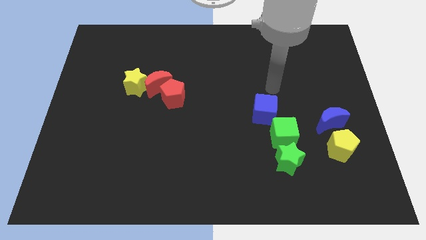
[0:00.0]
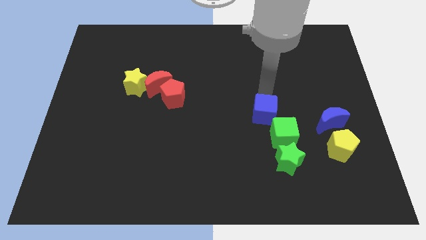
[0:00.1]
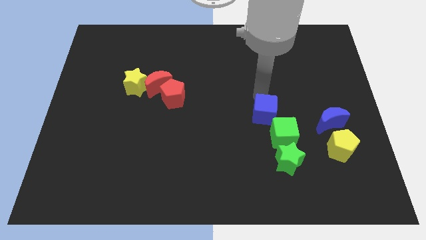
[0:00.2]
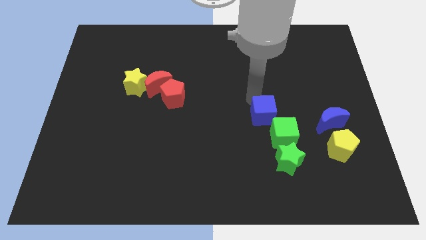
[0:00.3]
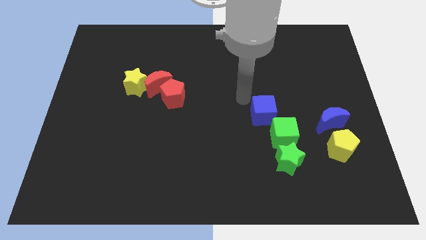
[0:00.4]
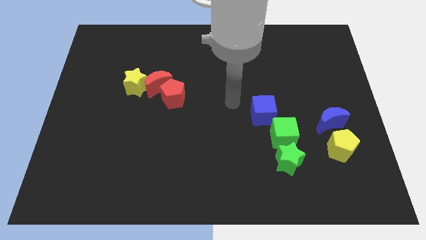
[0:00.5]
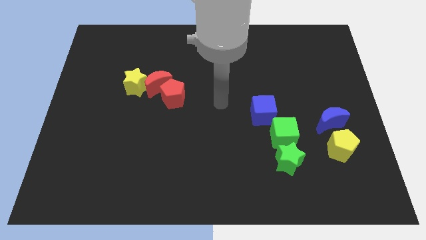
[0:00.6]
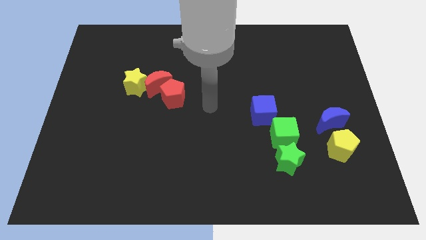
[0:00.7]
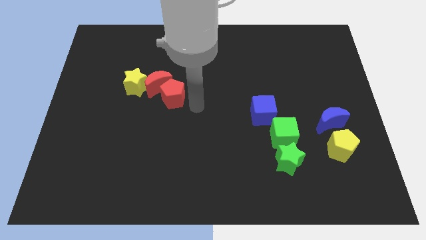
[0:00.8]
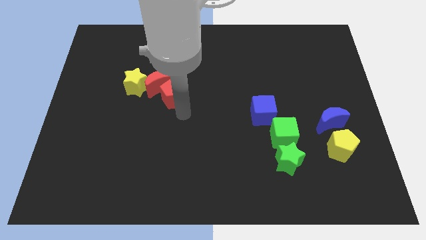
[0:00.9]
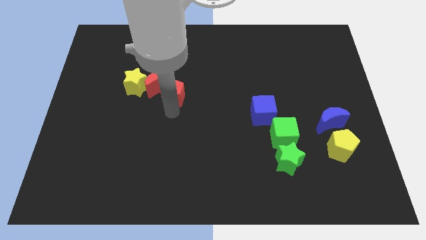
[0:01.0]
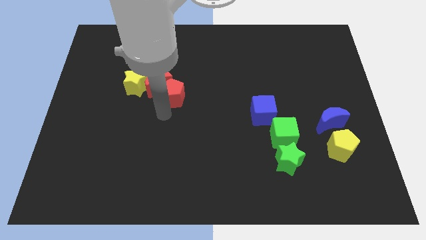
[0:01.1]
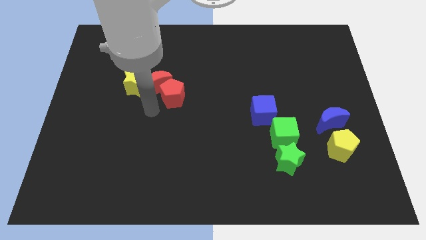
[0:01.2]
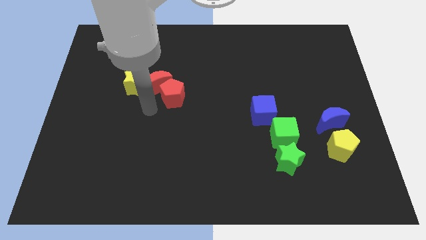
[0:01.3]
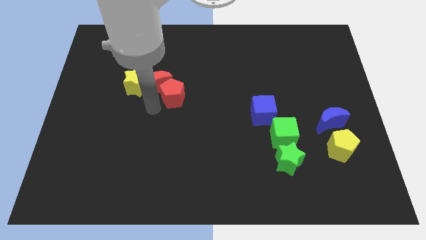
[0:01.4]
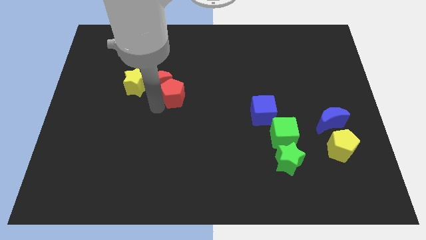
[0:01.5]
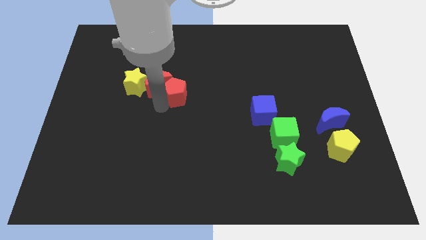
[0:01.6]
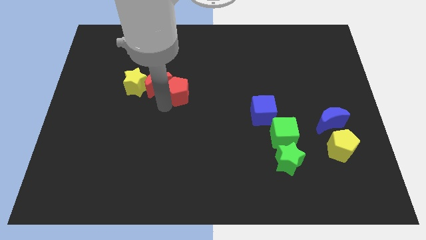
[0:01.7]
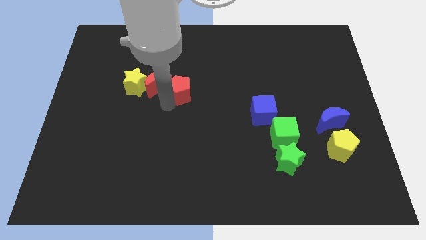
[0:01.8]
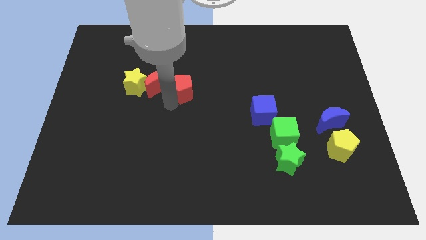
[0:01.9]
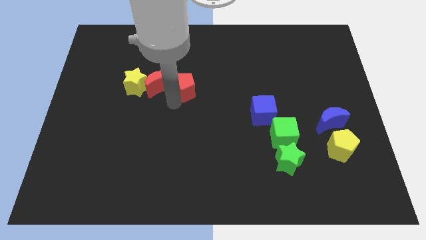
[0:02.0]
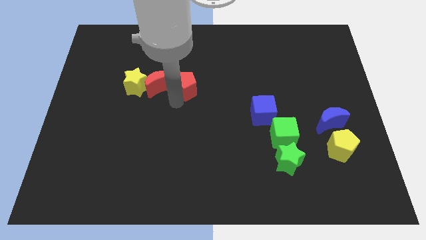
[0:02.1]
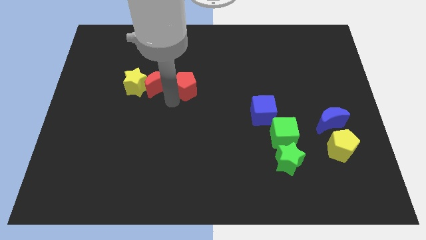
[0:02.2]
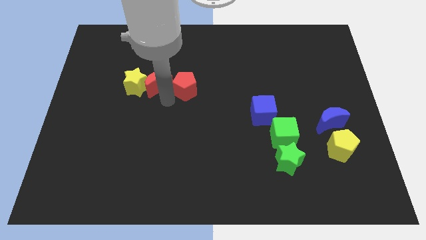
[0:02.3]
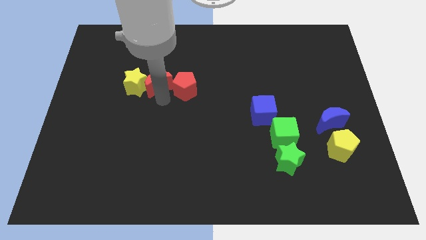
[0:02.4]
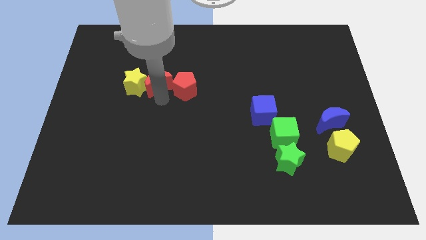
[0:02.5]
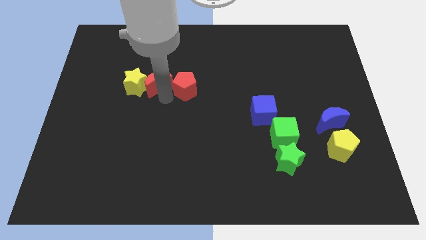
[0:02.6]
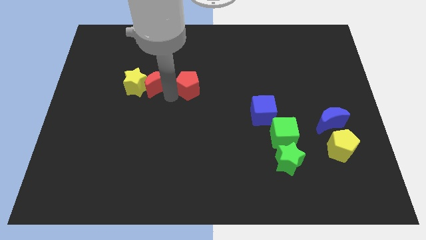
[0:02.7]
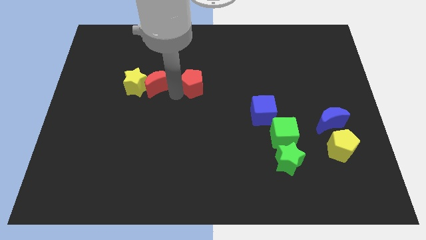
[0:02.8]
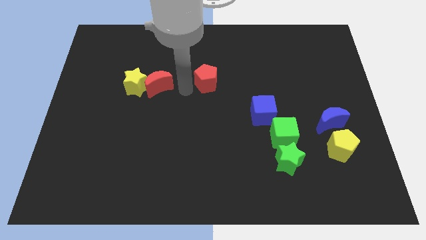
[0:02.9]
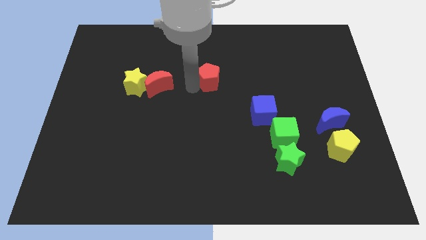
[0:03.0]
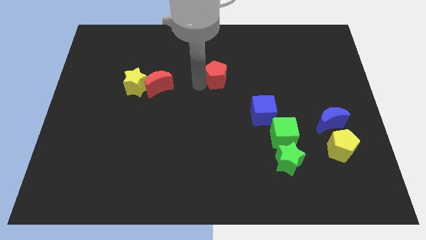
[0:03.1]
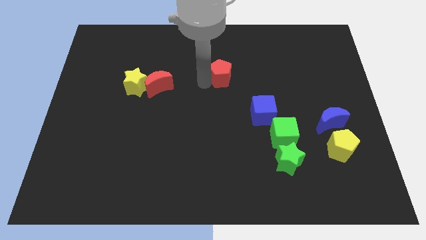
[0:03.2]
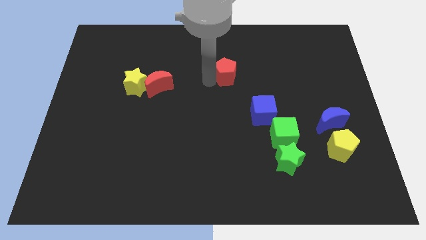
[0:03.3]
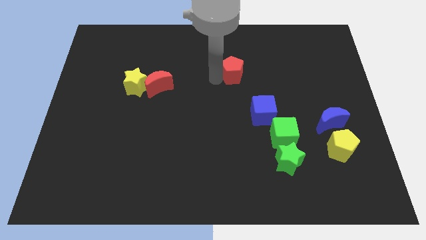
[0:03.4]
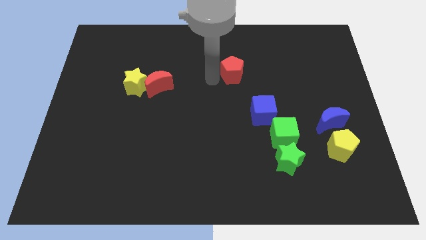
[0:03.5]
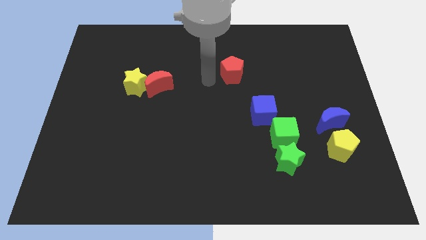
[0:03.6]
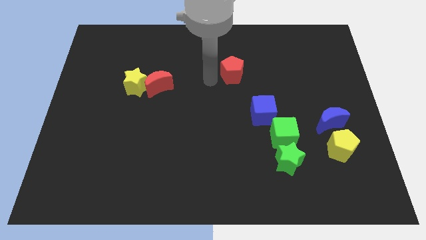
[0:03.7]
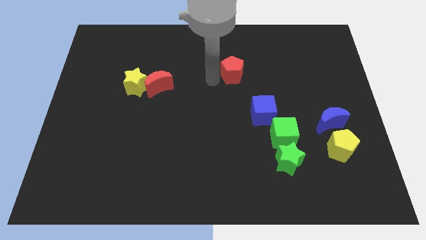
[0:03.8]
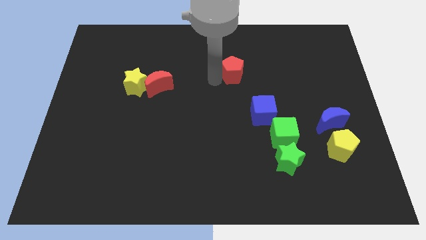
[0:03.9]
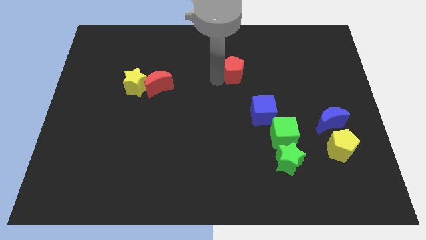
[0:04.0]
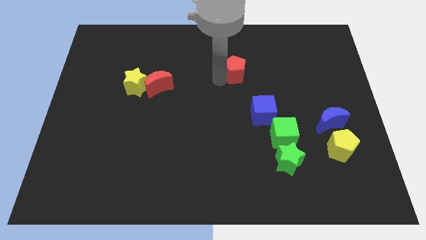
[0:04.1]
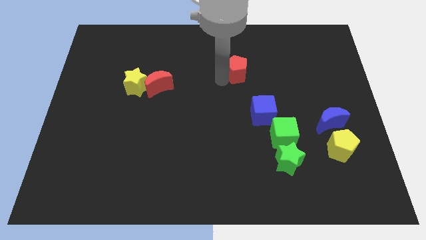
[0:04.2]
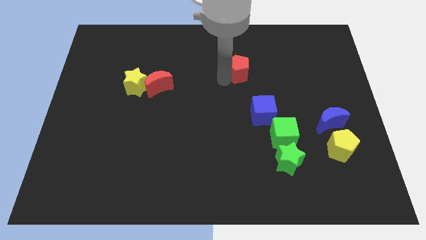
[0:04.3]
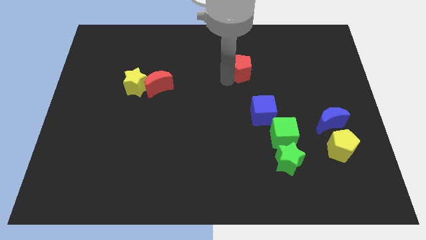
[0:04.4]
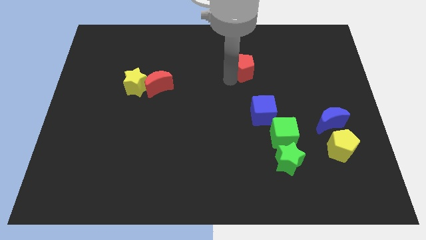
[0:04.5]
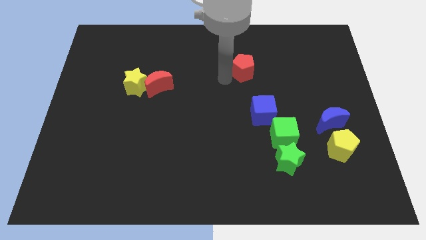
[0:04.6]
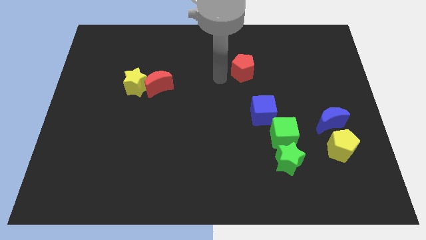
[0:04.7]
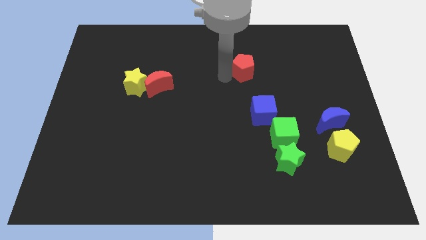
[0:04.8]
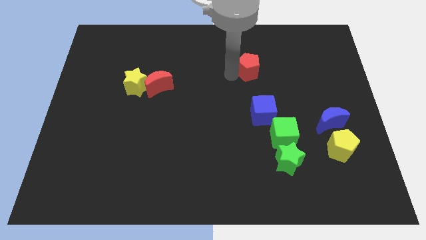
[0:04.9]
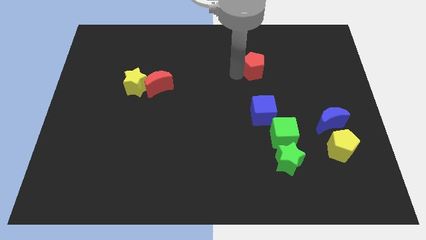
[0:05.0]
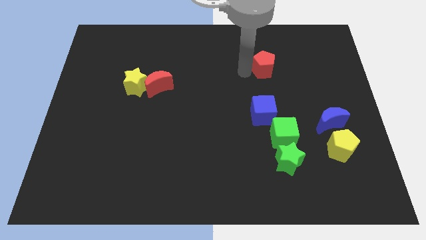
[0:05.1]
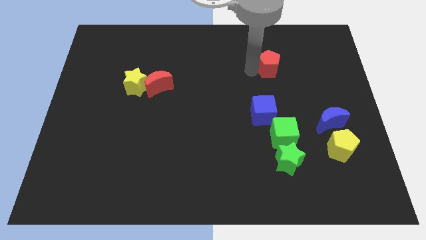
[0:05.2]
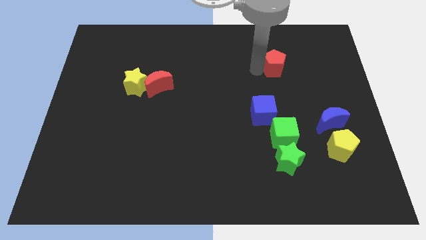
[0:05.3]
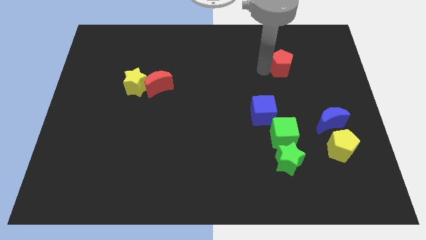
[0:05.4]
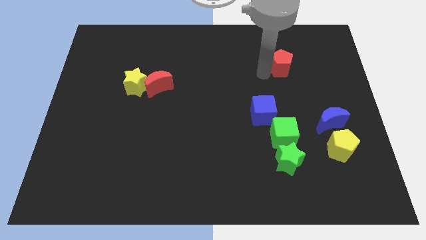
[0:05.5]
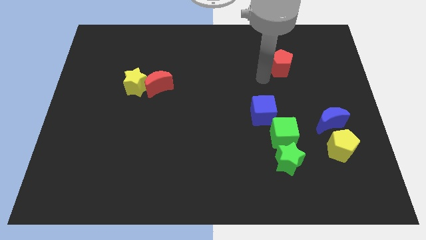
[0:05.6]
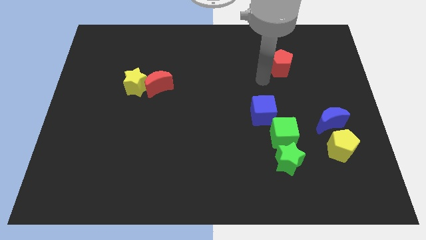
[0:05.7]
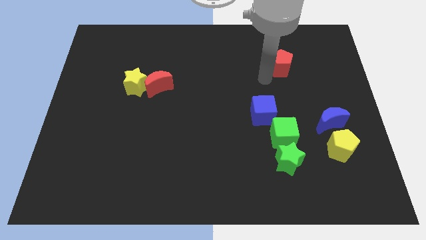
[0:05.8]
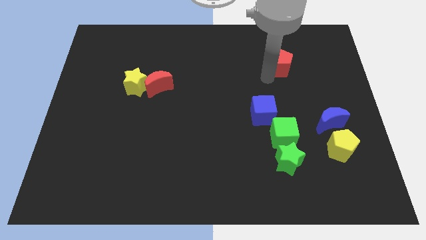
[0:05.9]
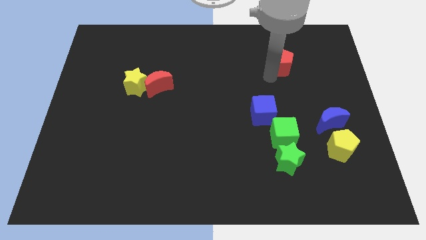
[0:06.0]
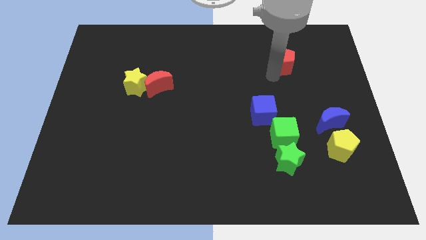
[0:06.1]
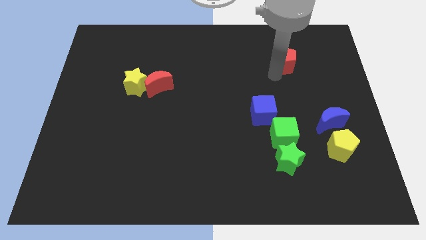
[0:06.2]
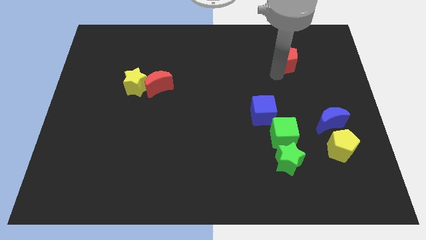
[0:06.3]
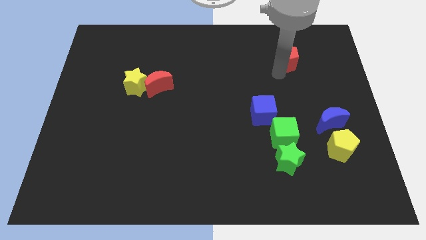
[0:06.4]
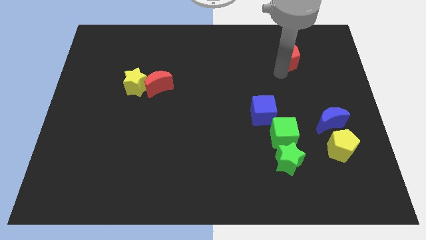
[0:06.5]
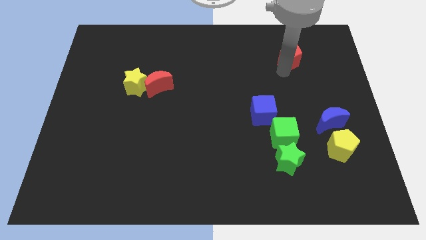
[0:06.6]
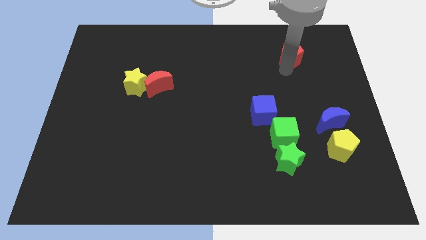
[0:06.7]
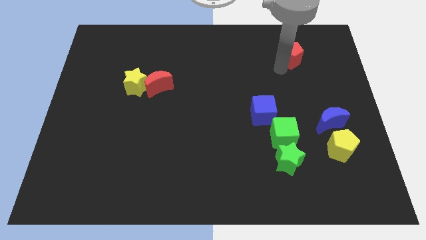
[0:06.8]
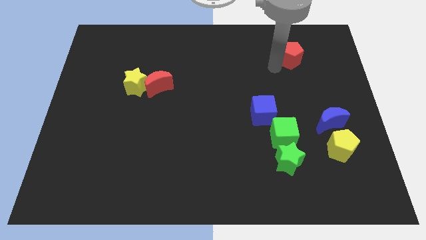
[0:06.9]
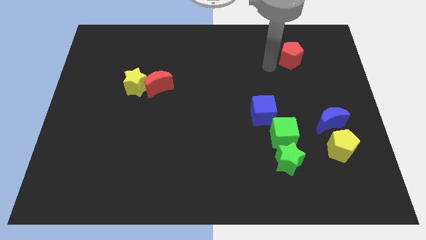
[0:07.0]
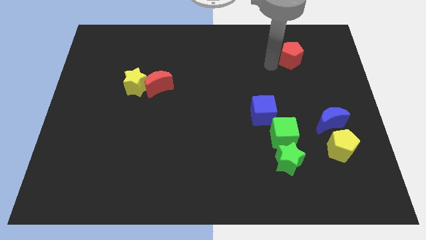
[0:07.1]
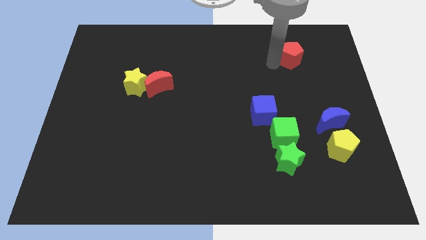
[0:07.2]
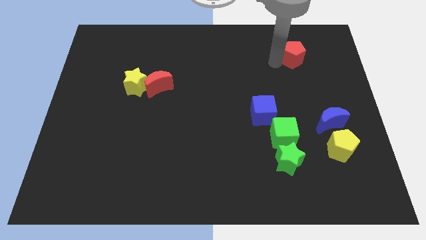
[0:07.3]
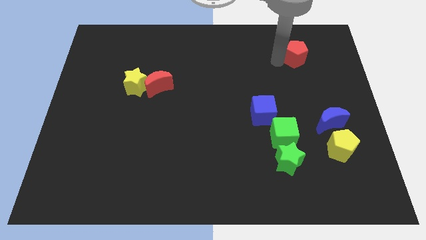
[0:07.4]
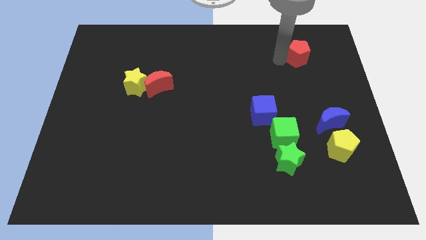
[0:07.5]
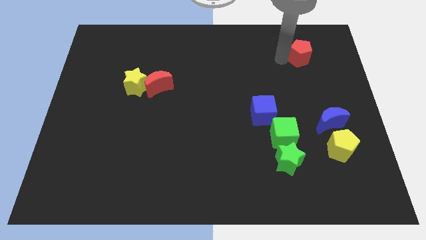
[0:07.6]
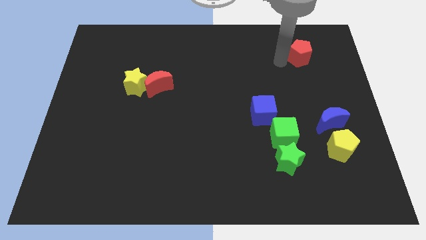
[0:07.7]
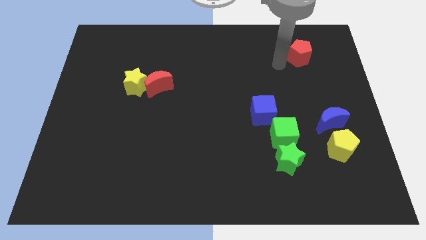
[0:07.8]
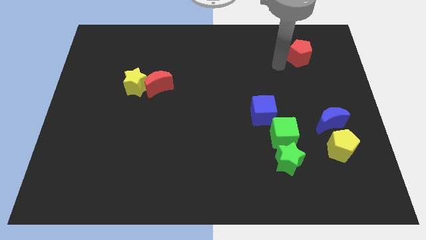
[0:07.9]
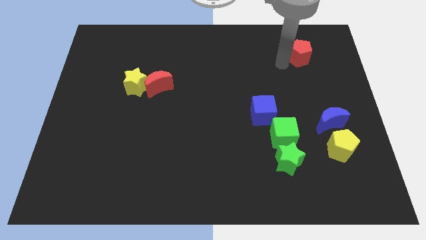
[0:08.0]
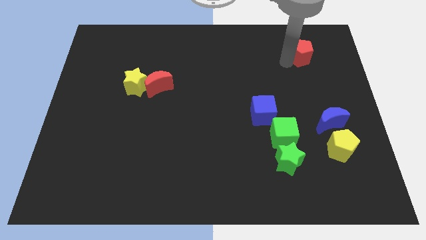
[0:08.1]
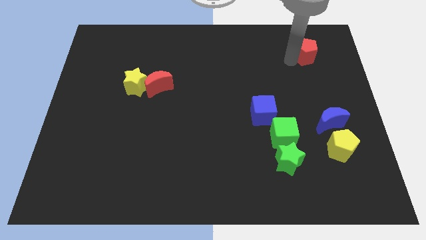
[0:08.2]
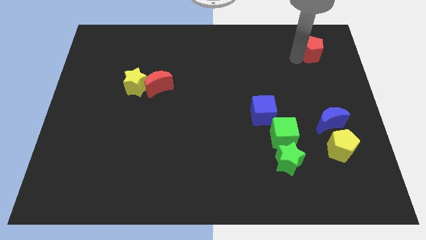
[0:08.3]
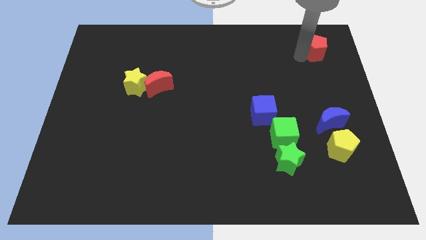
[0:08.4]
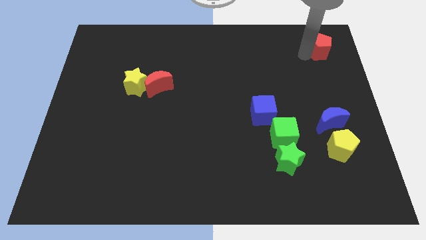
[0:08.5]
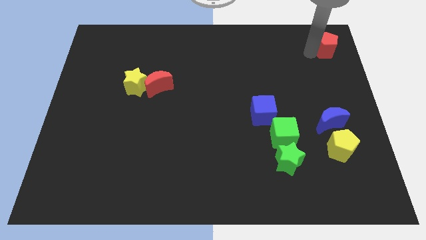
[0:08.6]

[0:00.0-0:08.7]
push the red pentagon to the upper right corner
